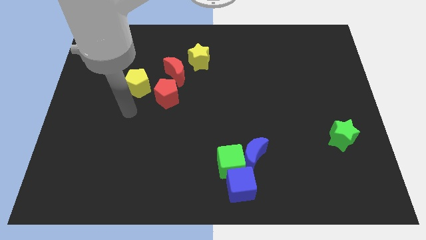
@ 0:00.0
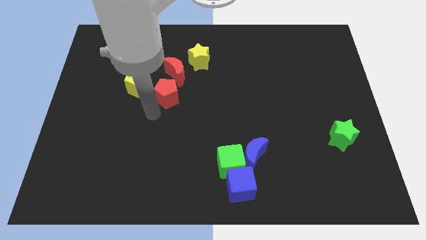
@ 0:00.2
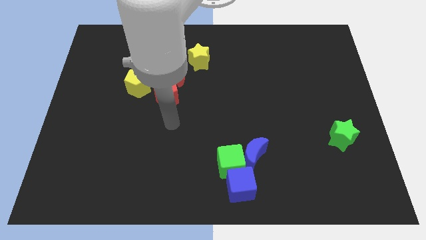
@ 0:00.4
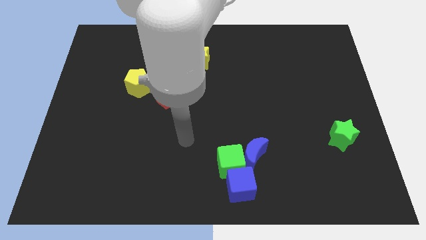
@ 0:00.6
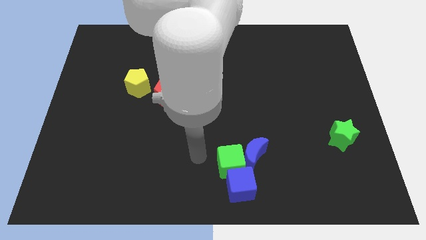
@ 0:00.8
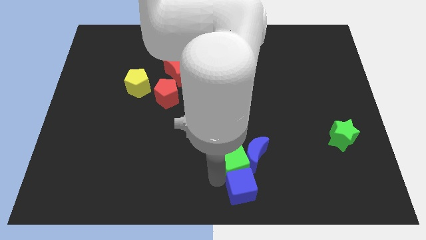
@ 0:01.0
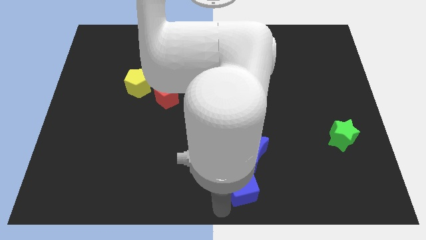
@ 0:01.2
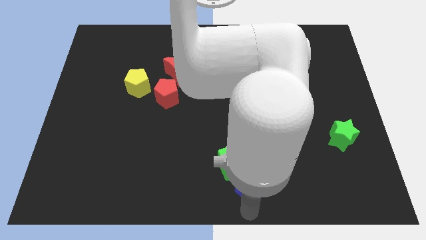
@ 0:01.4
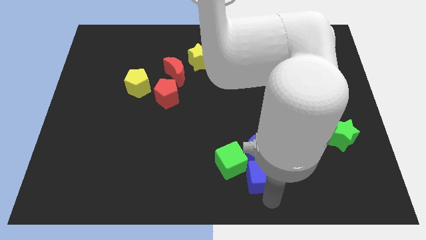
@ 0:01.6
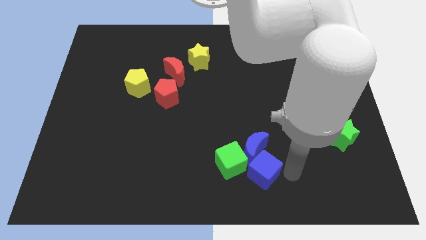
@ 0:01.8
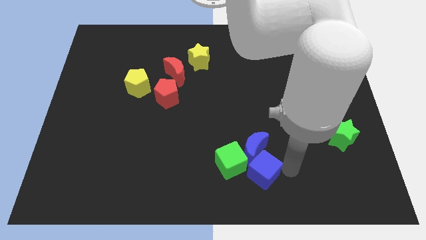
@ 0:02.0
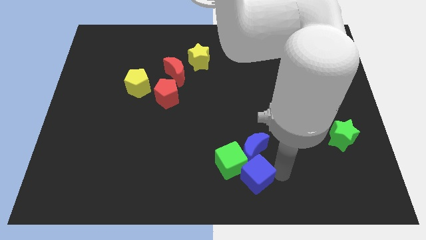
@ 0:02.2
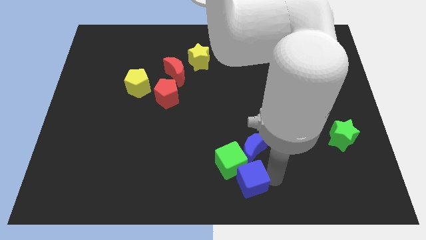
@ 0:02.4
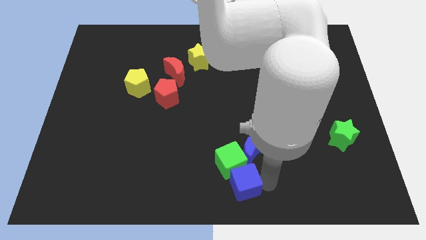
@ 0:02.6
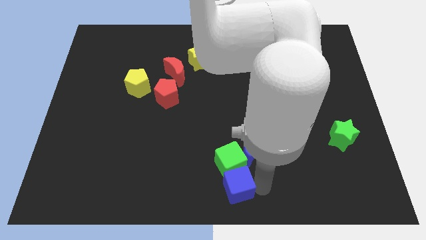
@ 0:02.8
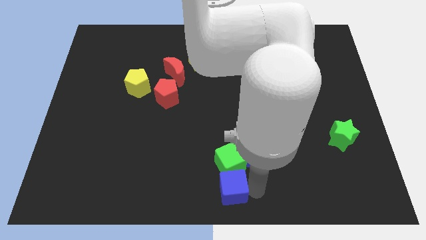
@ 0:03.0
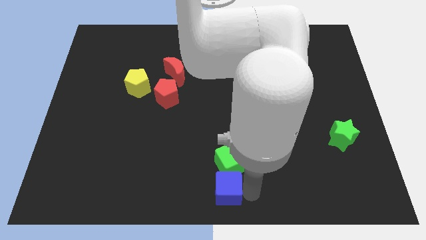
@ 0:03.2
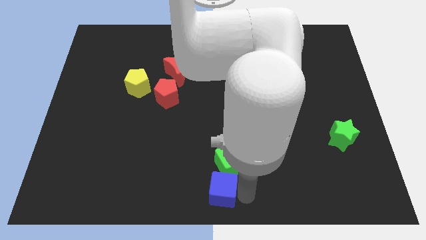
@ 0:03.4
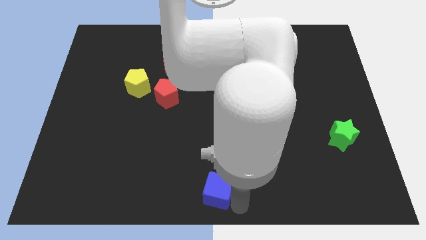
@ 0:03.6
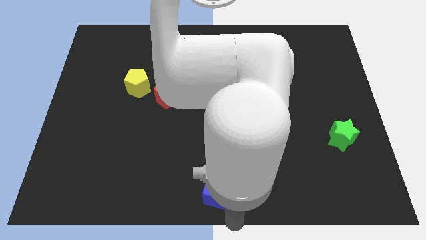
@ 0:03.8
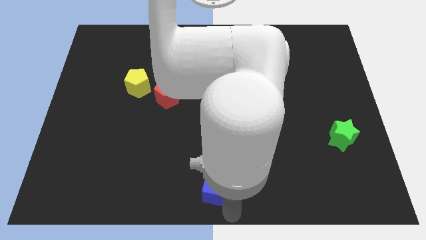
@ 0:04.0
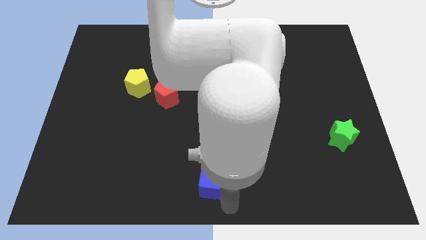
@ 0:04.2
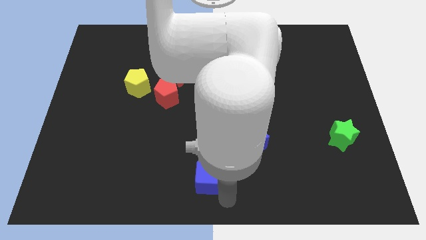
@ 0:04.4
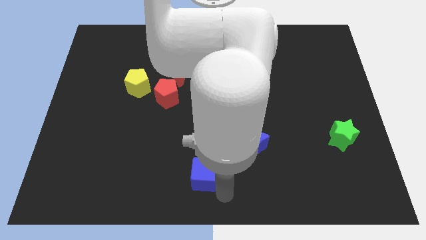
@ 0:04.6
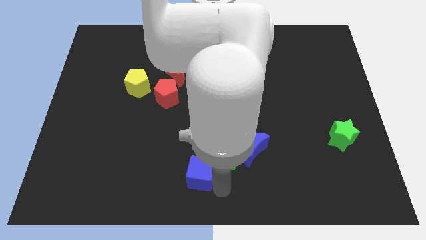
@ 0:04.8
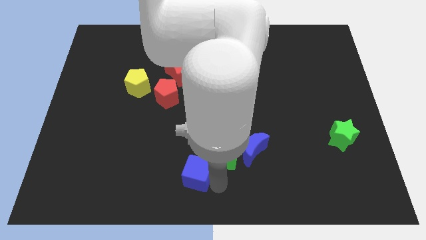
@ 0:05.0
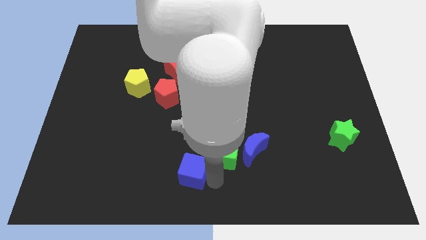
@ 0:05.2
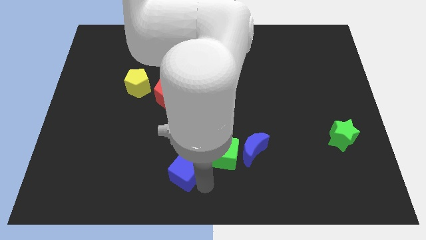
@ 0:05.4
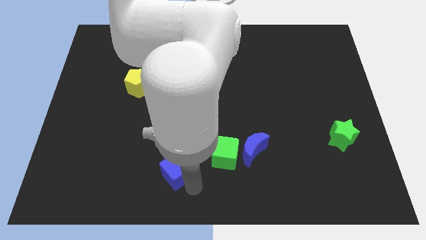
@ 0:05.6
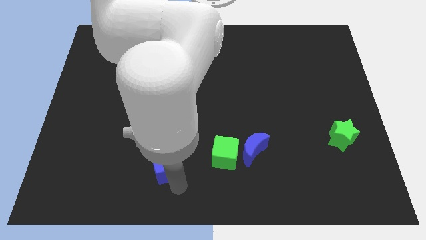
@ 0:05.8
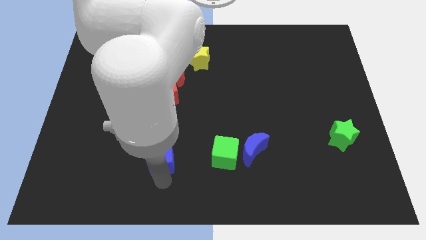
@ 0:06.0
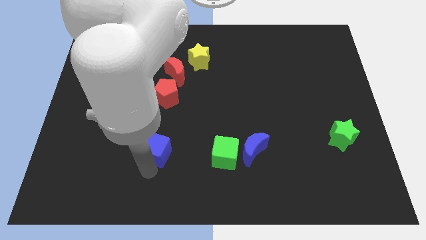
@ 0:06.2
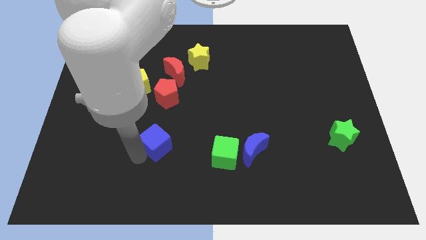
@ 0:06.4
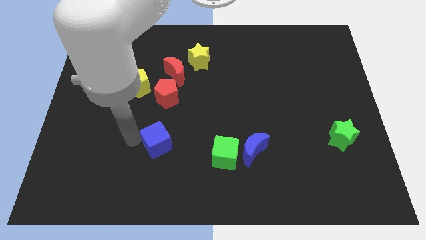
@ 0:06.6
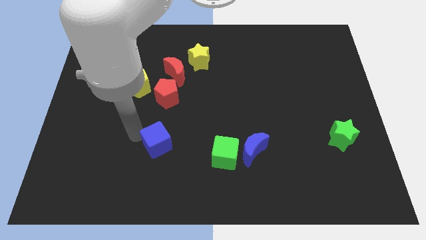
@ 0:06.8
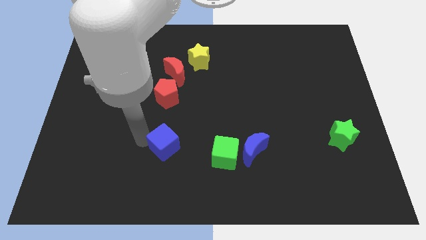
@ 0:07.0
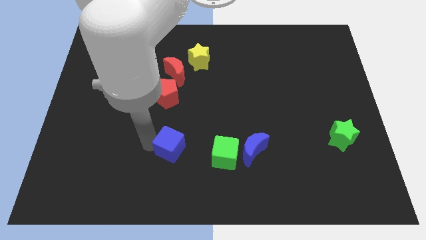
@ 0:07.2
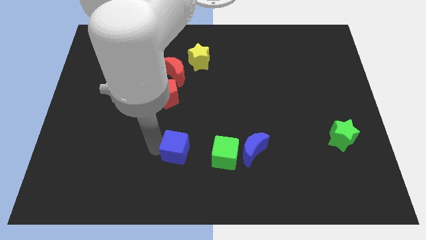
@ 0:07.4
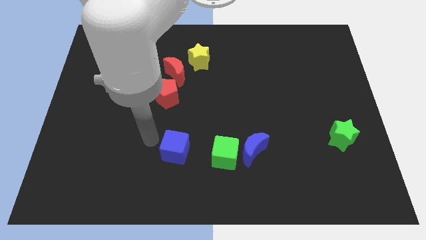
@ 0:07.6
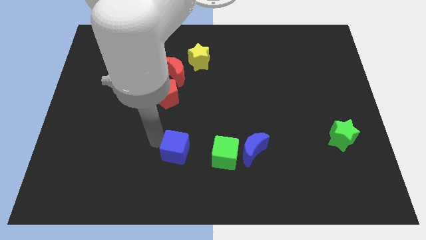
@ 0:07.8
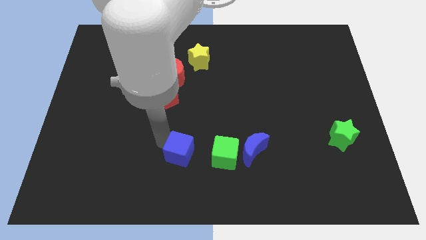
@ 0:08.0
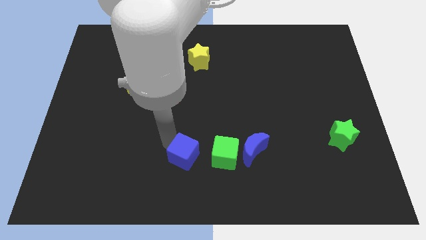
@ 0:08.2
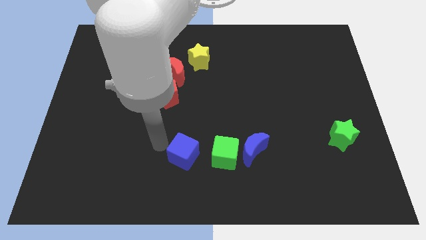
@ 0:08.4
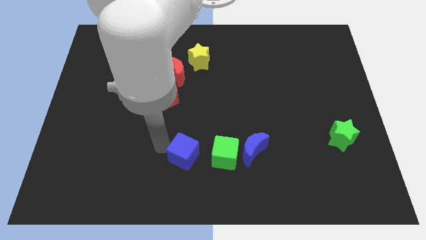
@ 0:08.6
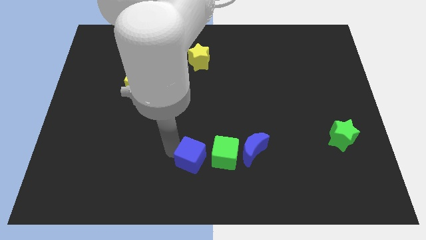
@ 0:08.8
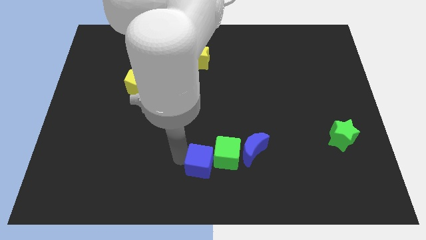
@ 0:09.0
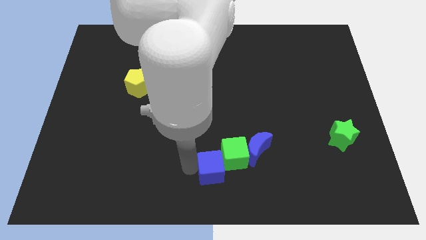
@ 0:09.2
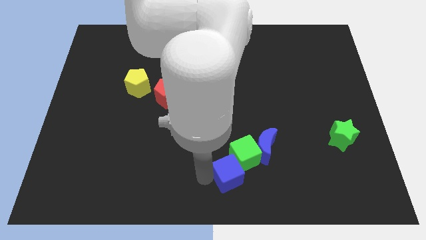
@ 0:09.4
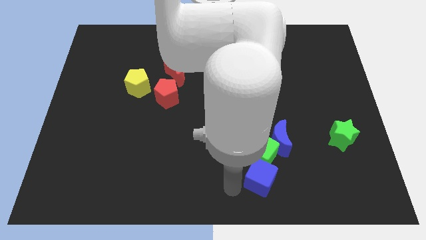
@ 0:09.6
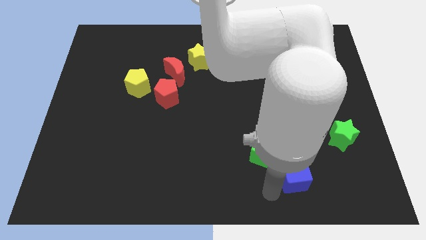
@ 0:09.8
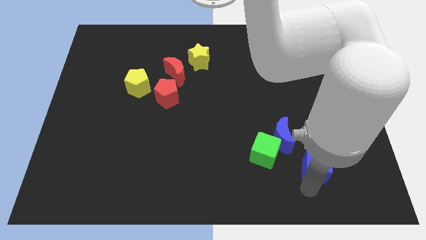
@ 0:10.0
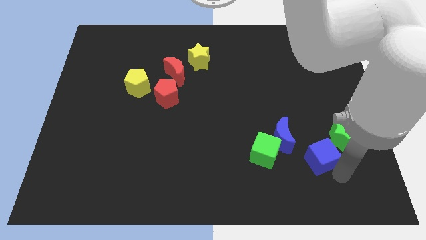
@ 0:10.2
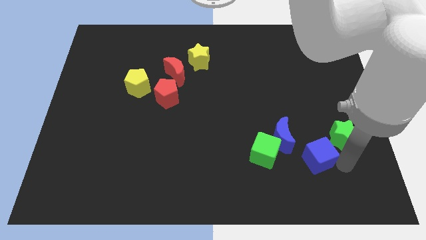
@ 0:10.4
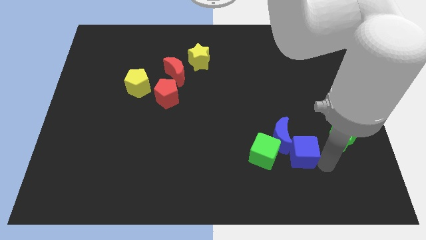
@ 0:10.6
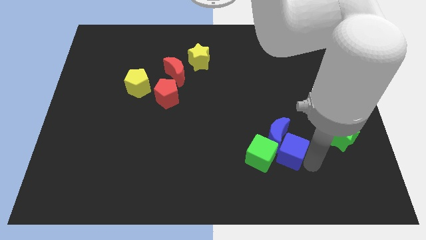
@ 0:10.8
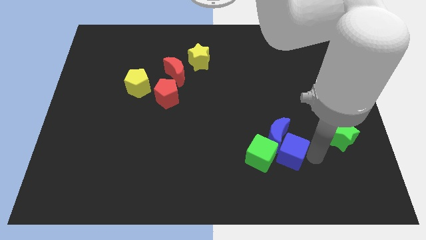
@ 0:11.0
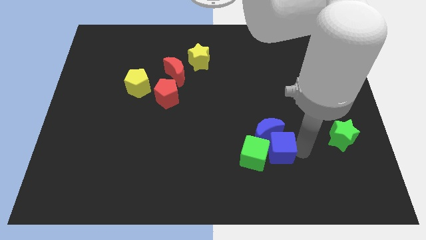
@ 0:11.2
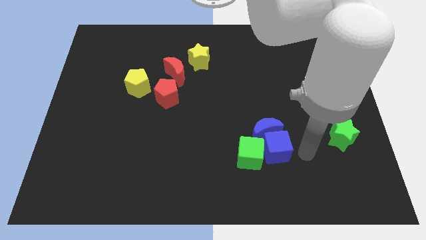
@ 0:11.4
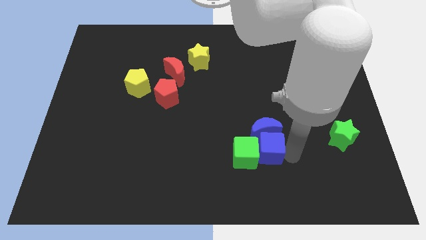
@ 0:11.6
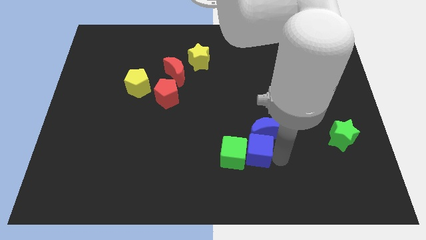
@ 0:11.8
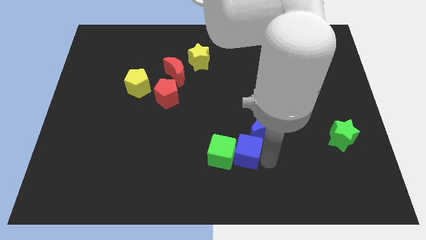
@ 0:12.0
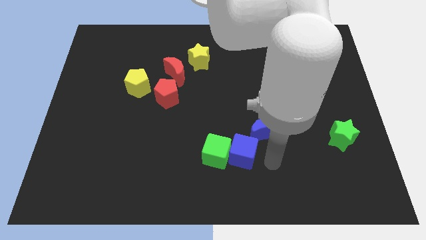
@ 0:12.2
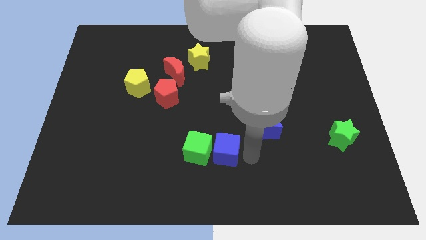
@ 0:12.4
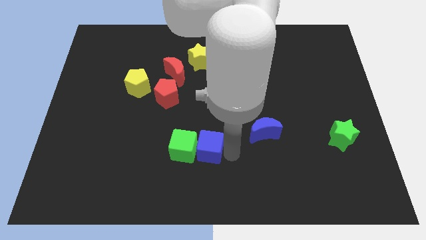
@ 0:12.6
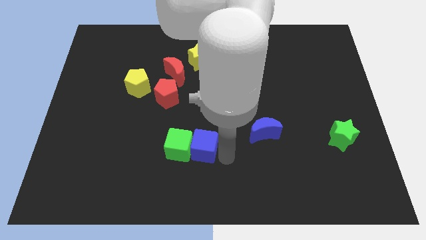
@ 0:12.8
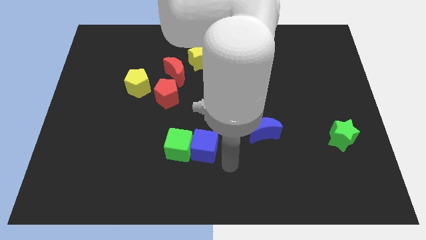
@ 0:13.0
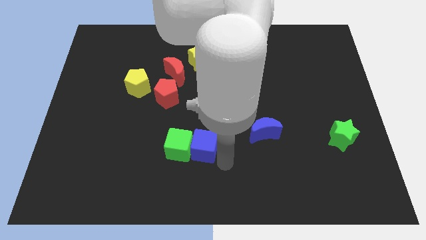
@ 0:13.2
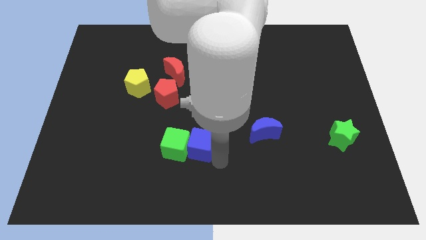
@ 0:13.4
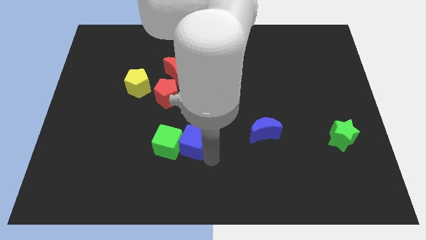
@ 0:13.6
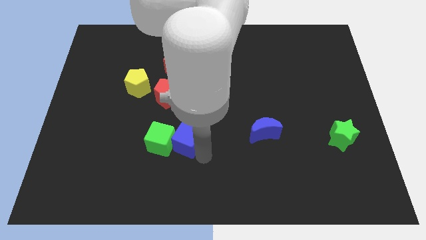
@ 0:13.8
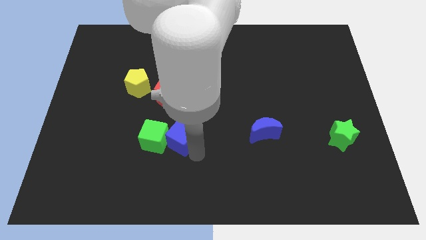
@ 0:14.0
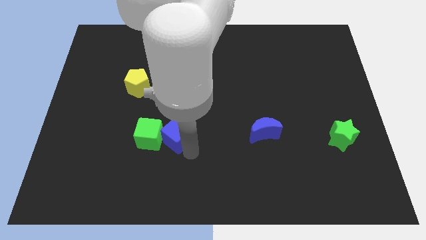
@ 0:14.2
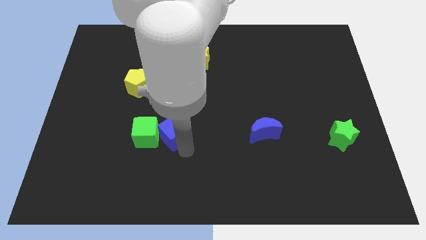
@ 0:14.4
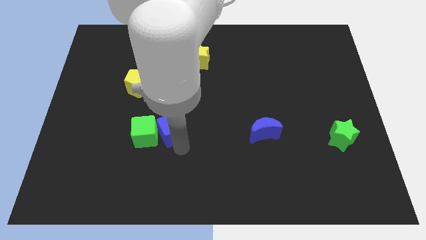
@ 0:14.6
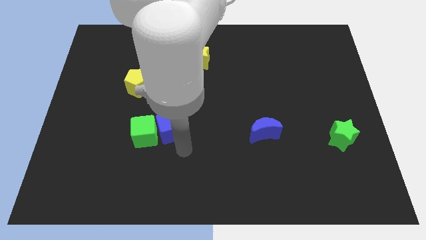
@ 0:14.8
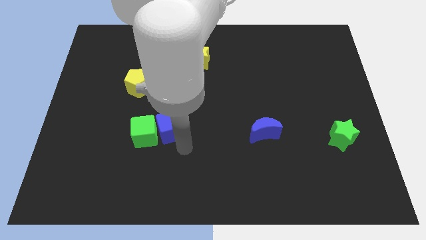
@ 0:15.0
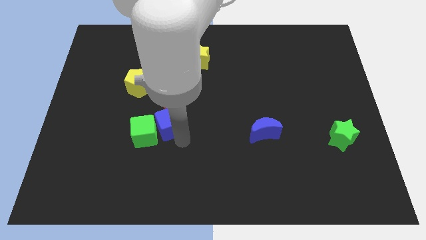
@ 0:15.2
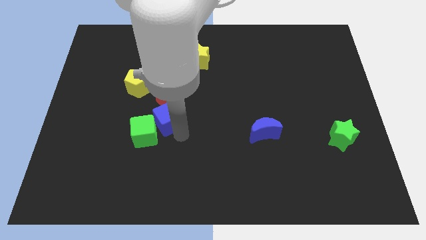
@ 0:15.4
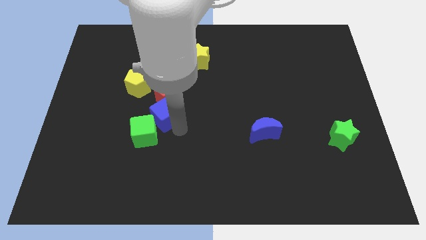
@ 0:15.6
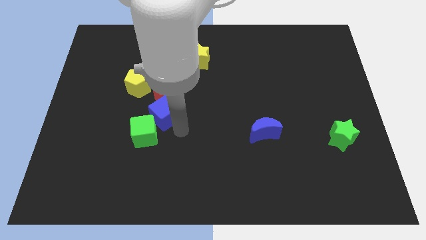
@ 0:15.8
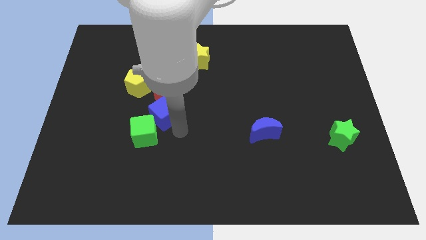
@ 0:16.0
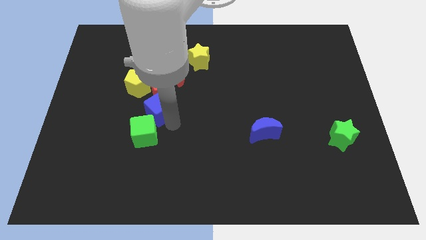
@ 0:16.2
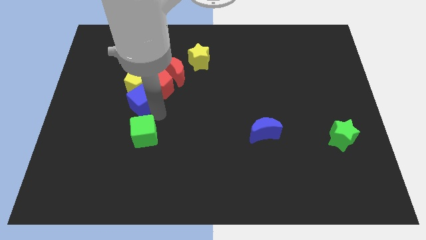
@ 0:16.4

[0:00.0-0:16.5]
move the blue cube close to the yellow pentagon
